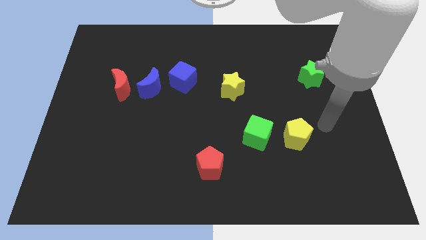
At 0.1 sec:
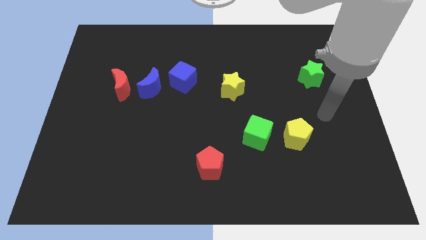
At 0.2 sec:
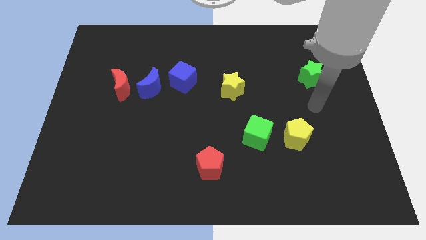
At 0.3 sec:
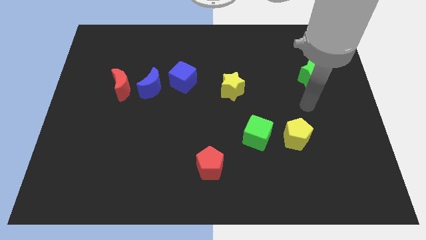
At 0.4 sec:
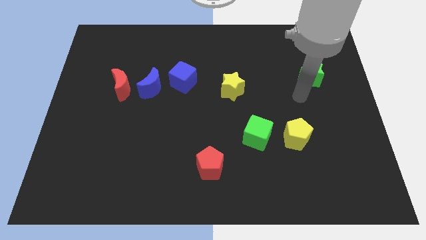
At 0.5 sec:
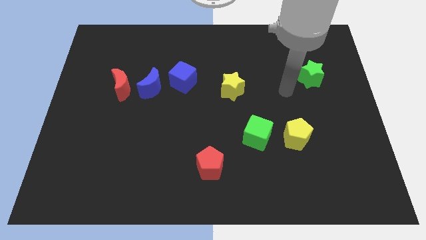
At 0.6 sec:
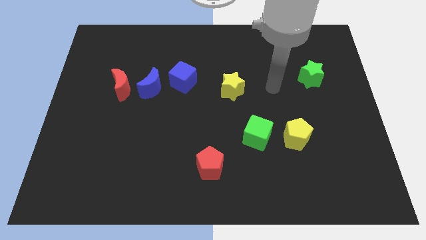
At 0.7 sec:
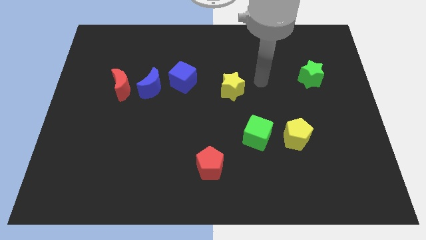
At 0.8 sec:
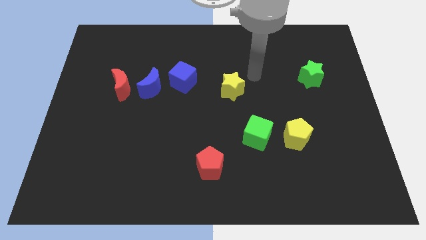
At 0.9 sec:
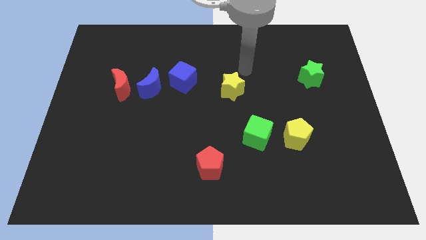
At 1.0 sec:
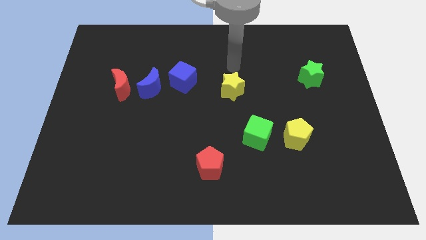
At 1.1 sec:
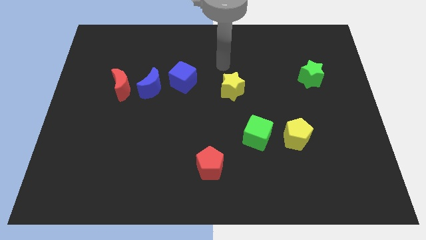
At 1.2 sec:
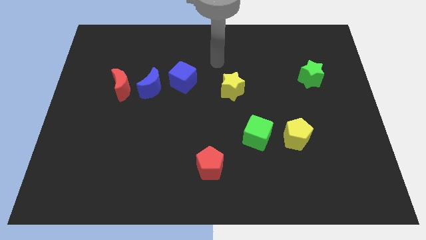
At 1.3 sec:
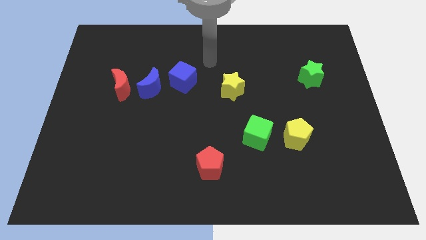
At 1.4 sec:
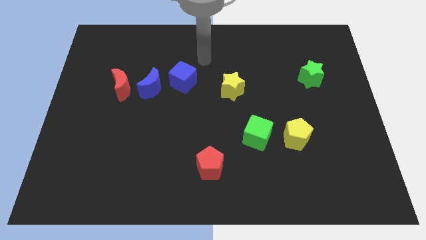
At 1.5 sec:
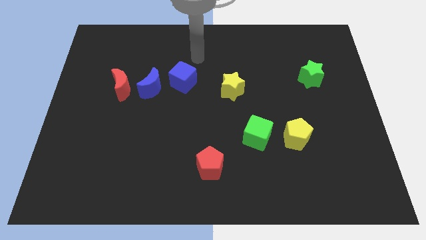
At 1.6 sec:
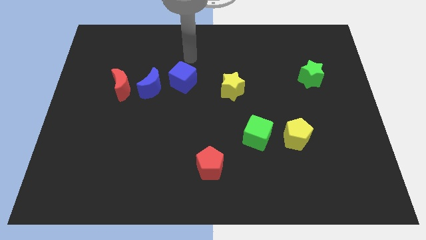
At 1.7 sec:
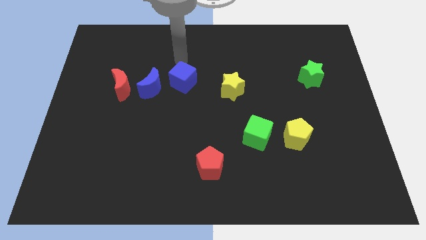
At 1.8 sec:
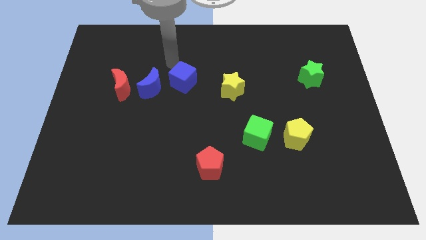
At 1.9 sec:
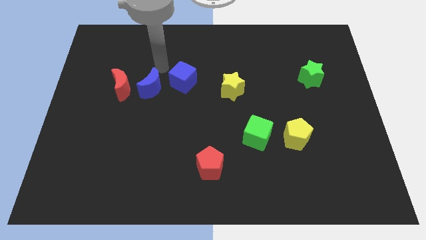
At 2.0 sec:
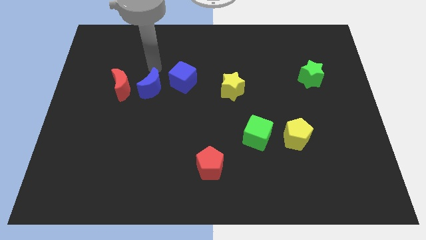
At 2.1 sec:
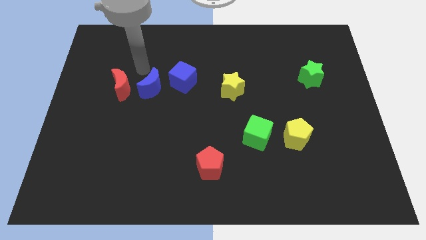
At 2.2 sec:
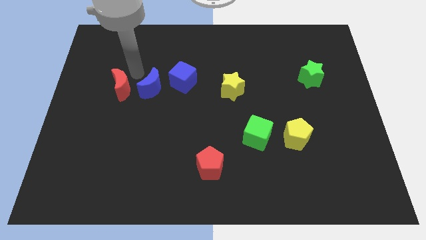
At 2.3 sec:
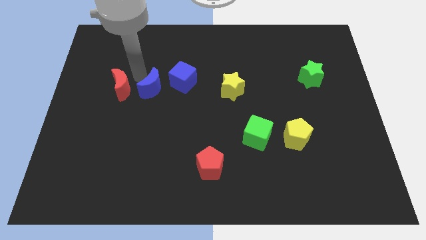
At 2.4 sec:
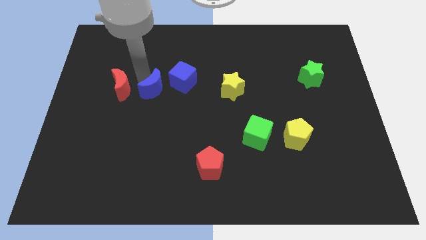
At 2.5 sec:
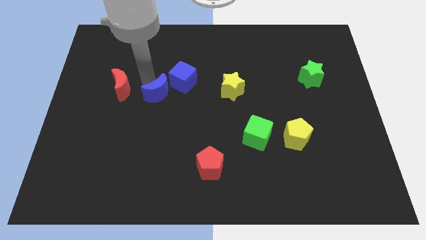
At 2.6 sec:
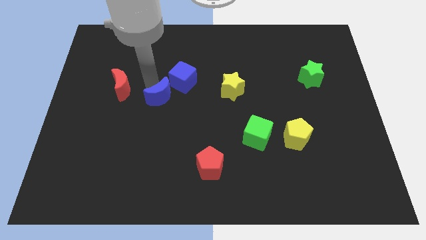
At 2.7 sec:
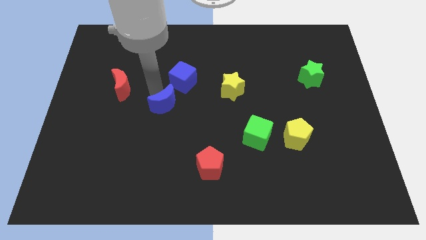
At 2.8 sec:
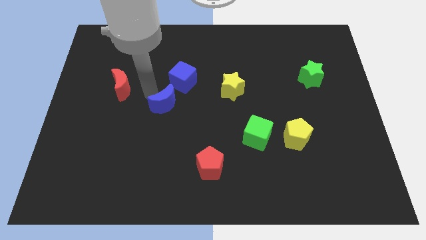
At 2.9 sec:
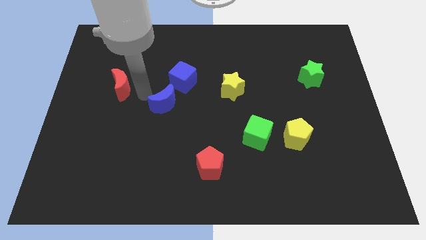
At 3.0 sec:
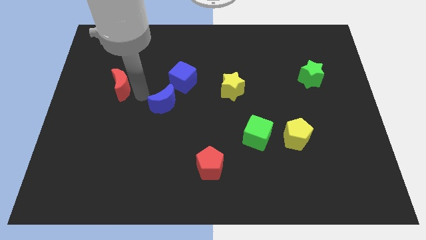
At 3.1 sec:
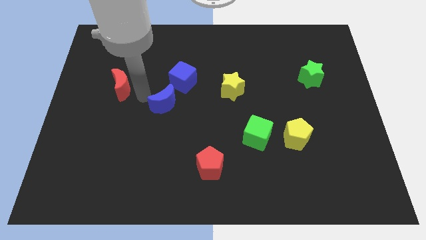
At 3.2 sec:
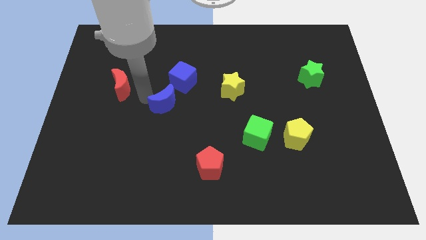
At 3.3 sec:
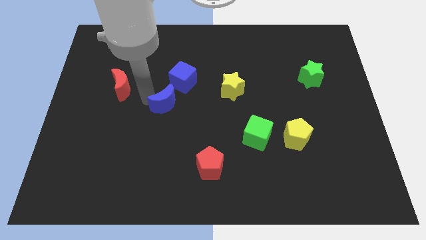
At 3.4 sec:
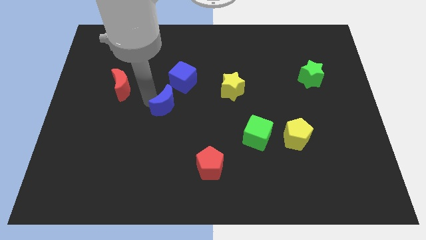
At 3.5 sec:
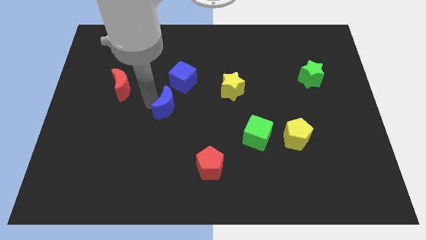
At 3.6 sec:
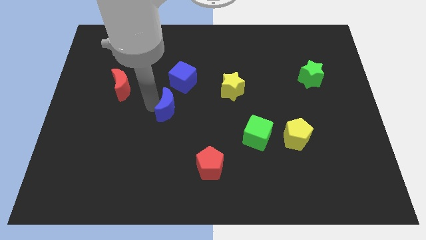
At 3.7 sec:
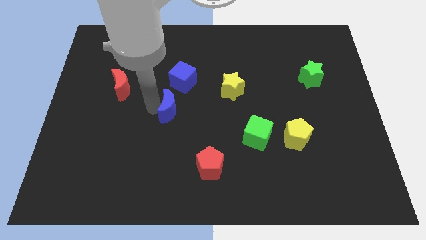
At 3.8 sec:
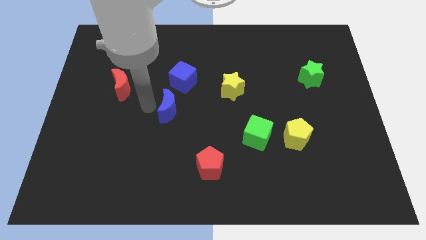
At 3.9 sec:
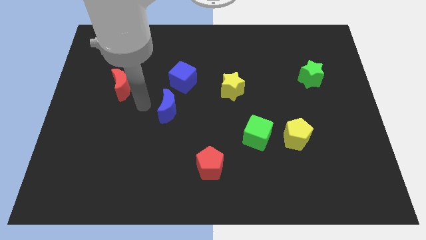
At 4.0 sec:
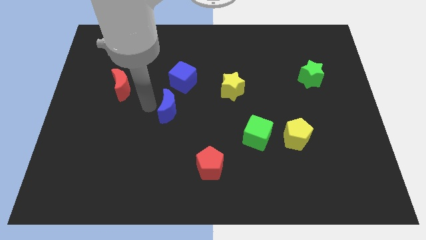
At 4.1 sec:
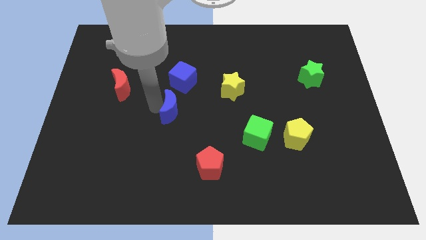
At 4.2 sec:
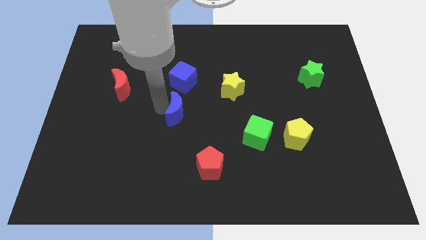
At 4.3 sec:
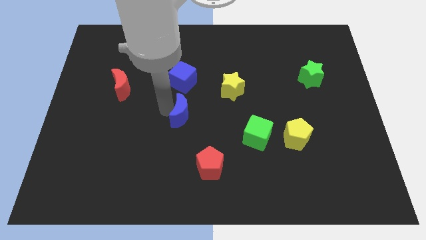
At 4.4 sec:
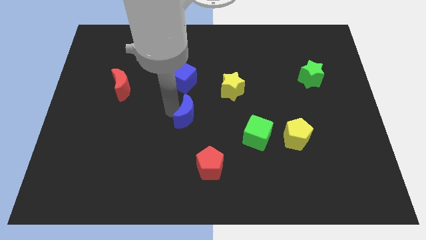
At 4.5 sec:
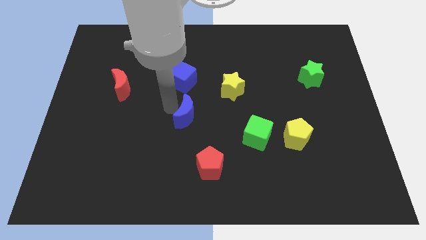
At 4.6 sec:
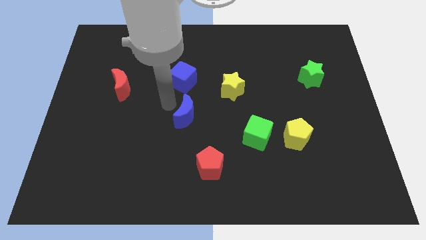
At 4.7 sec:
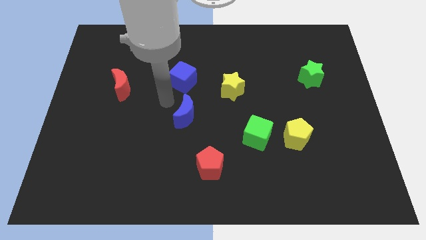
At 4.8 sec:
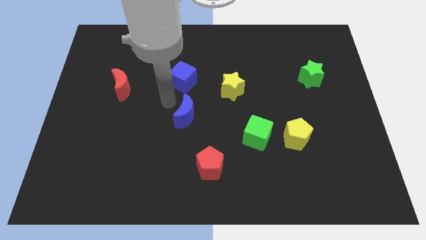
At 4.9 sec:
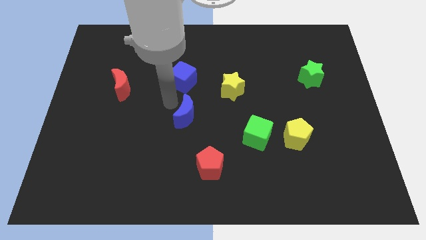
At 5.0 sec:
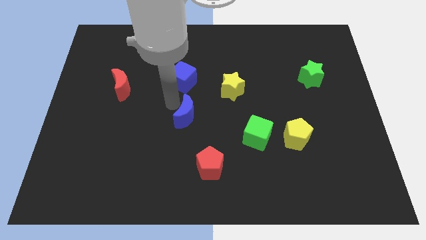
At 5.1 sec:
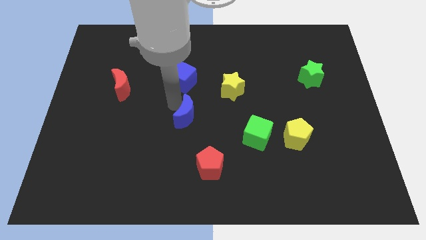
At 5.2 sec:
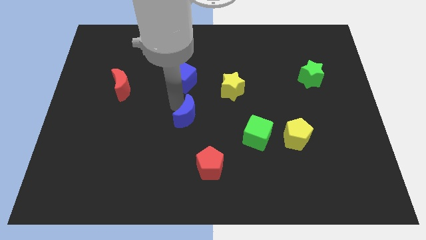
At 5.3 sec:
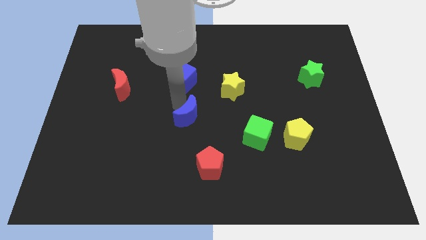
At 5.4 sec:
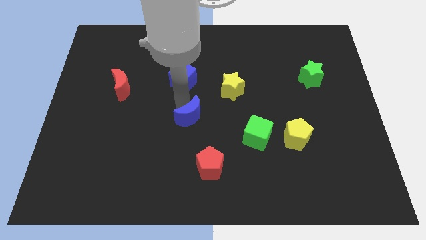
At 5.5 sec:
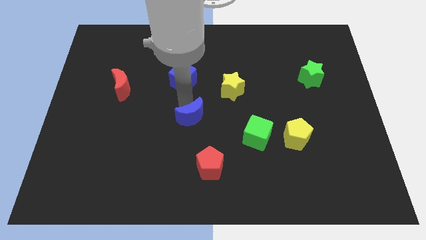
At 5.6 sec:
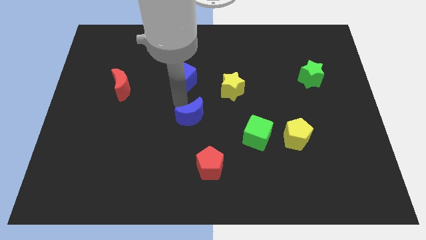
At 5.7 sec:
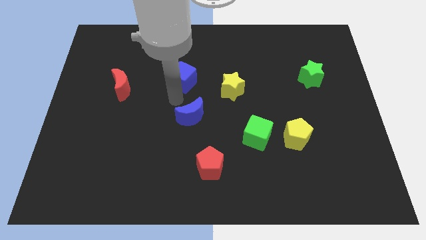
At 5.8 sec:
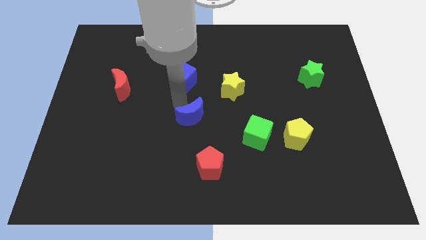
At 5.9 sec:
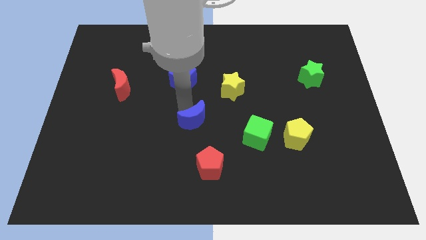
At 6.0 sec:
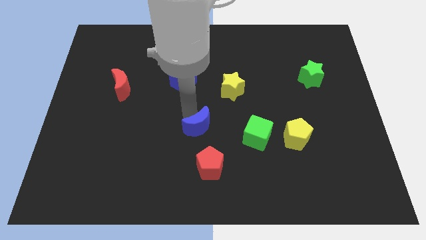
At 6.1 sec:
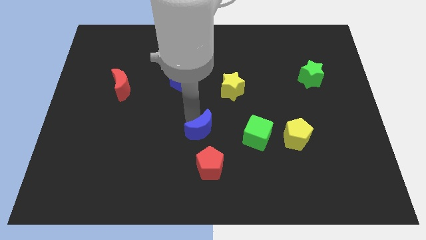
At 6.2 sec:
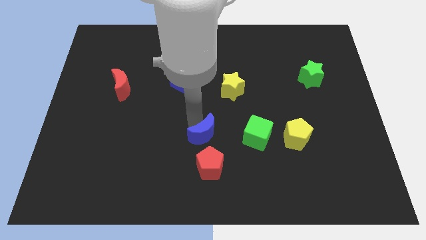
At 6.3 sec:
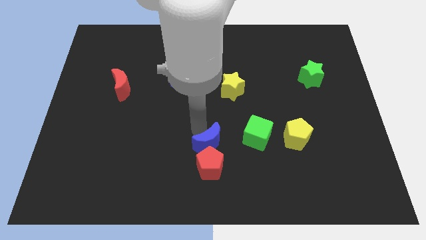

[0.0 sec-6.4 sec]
push the blue moon down and to the right diagonally

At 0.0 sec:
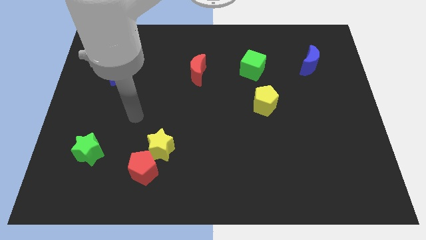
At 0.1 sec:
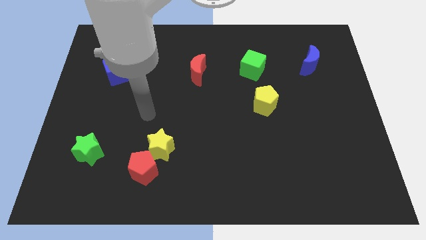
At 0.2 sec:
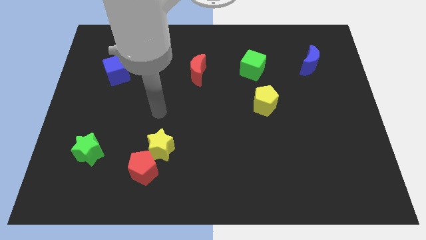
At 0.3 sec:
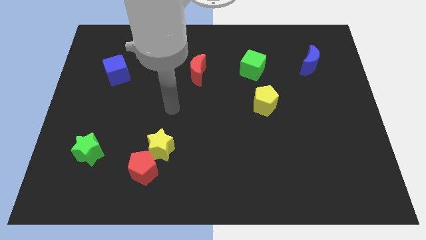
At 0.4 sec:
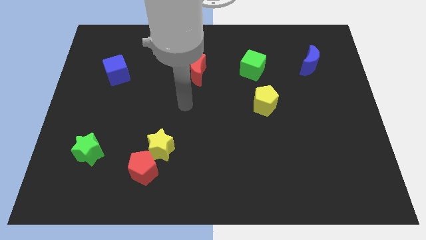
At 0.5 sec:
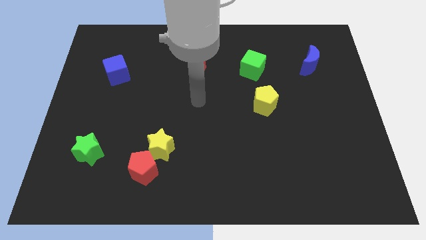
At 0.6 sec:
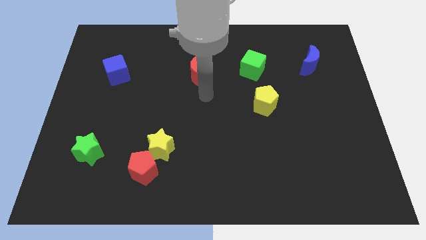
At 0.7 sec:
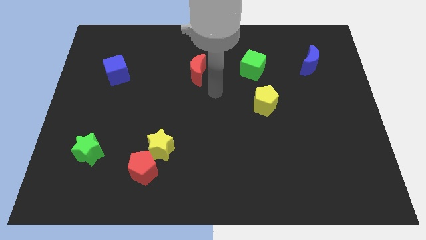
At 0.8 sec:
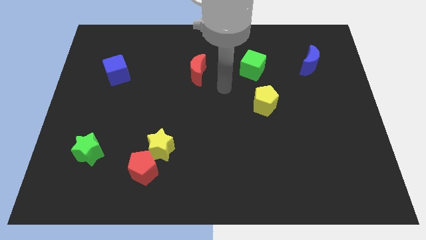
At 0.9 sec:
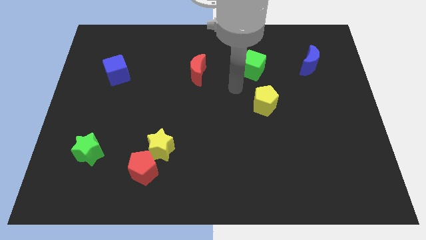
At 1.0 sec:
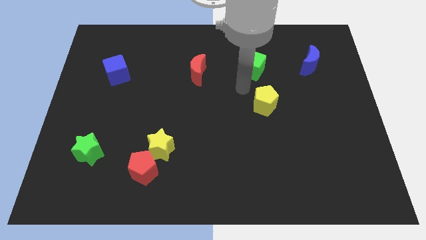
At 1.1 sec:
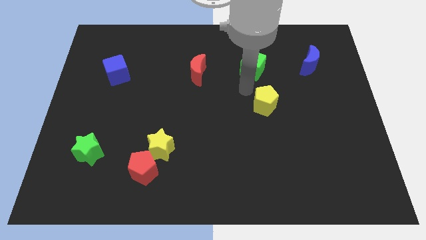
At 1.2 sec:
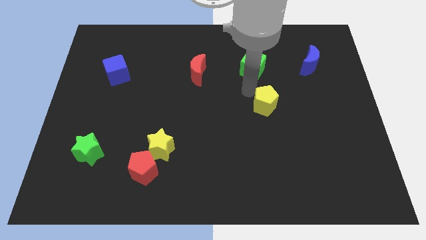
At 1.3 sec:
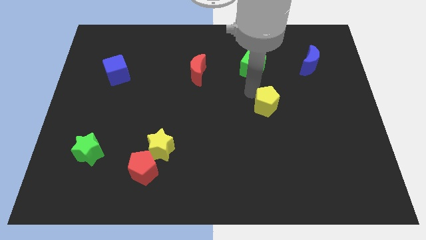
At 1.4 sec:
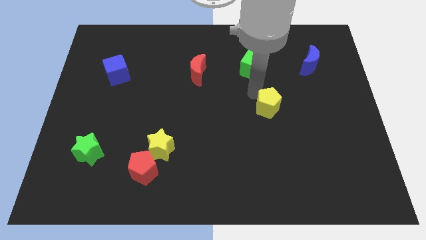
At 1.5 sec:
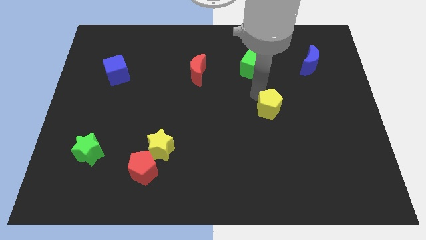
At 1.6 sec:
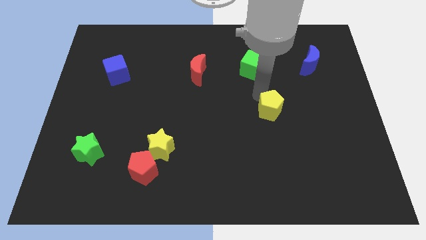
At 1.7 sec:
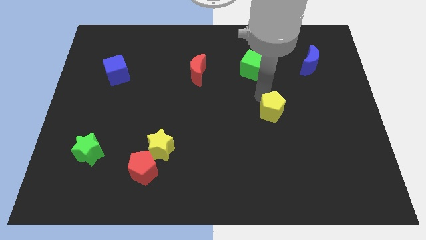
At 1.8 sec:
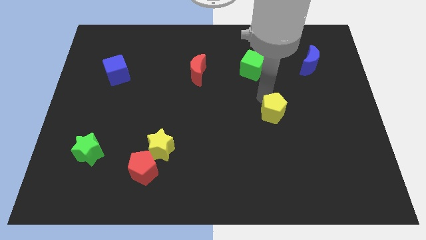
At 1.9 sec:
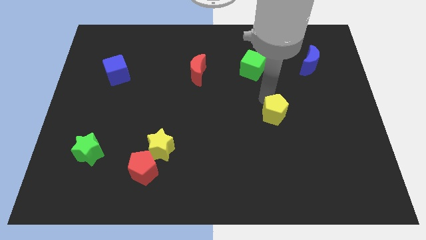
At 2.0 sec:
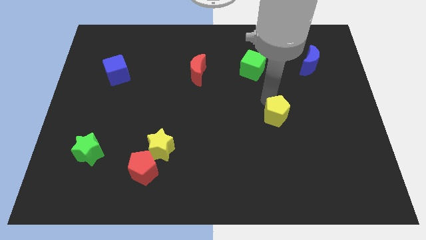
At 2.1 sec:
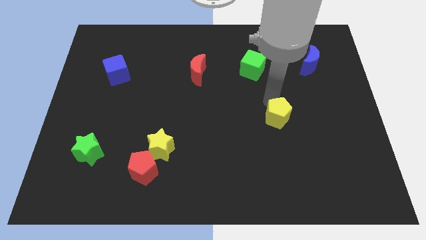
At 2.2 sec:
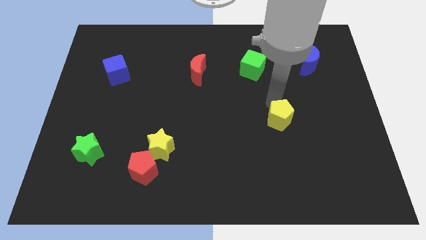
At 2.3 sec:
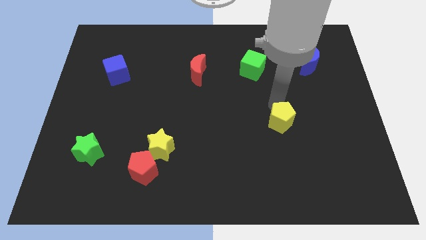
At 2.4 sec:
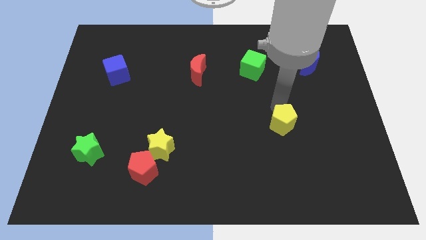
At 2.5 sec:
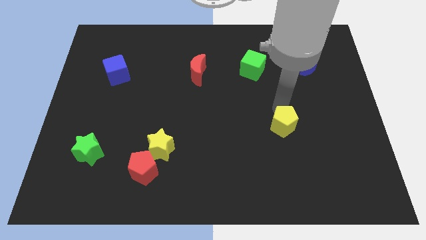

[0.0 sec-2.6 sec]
move the yellow pentagon somewhat down and right
